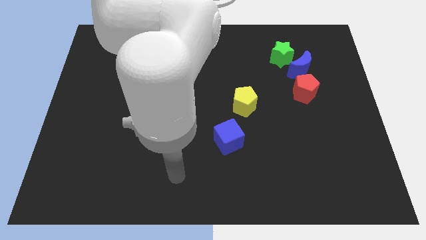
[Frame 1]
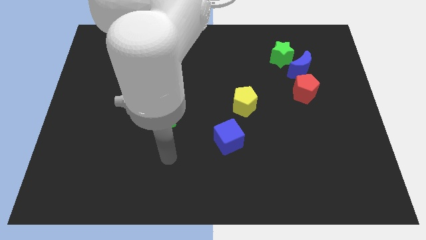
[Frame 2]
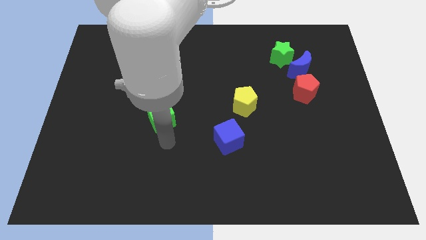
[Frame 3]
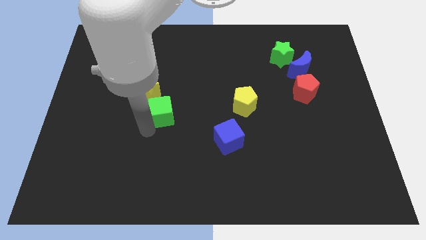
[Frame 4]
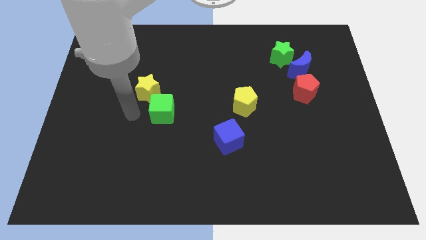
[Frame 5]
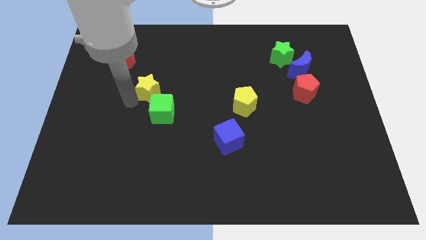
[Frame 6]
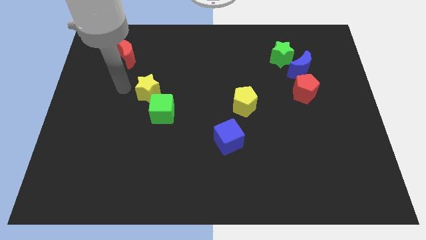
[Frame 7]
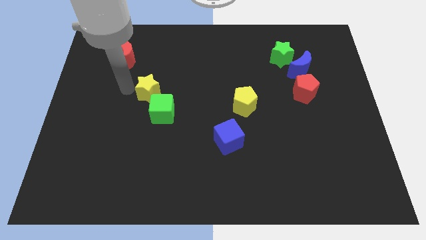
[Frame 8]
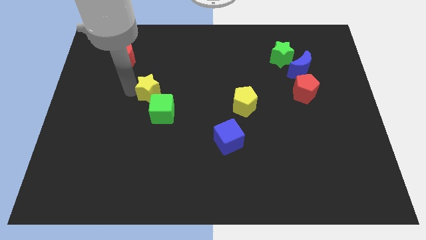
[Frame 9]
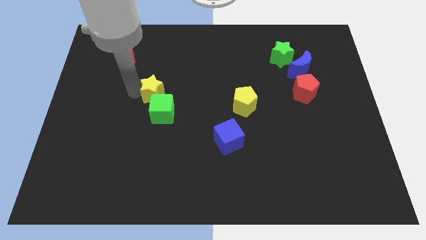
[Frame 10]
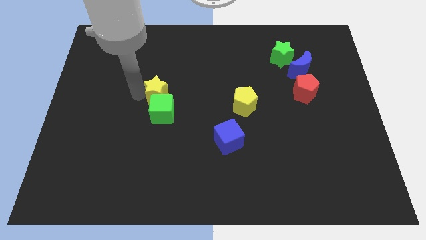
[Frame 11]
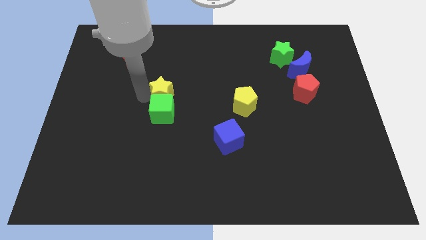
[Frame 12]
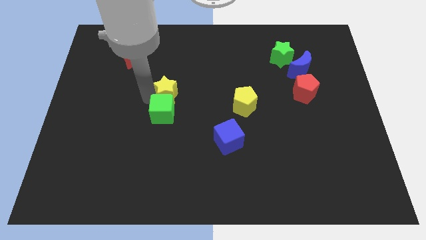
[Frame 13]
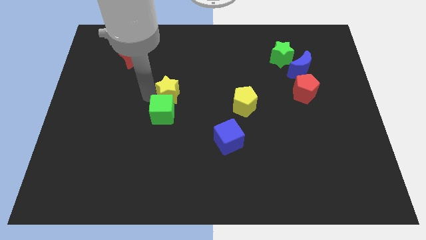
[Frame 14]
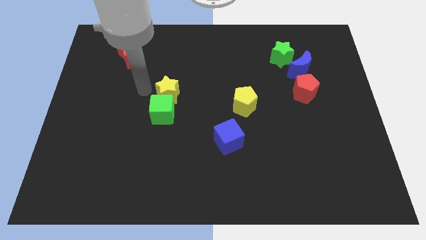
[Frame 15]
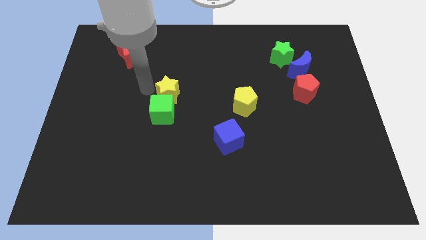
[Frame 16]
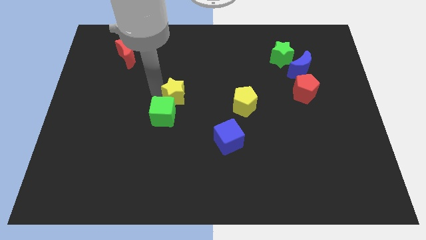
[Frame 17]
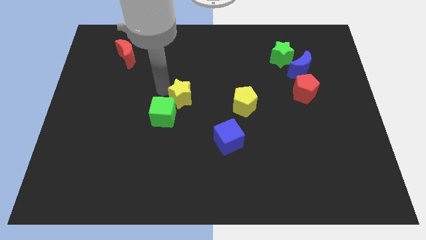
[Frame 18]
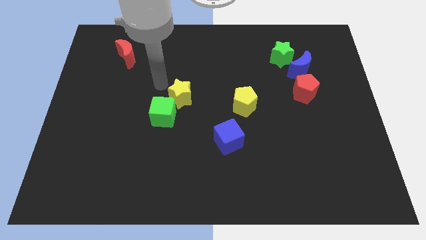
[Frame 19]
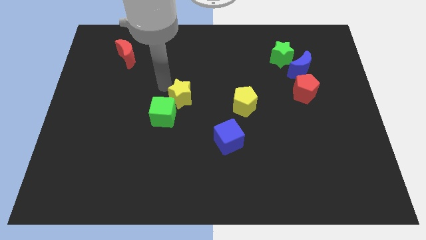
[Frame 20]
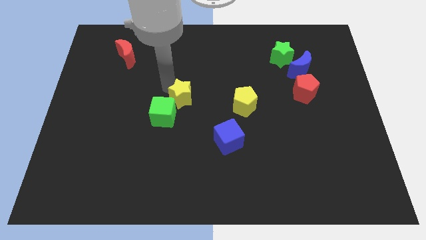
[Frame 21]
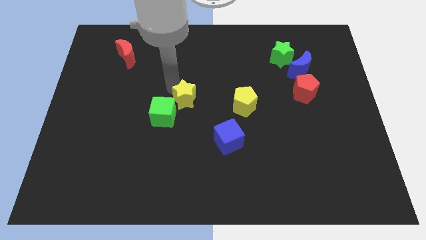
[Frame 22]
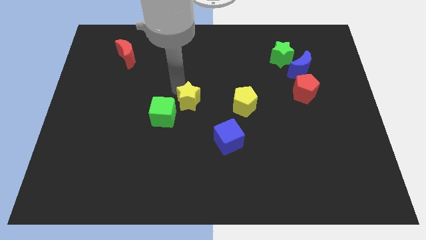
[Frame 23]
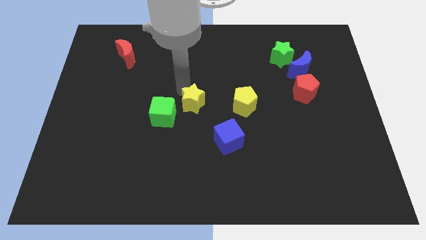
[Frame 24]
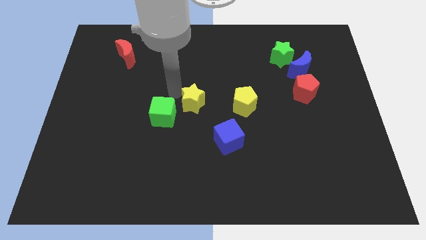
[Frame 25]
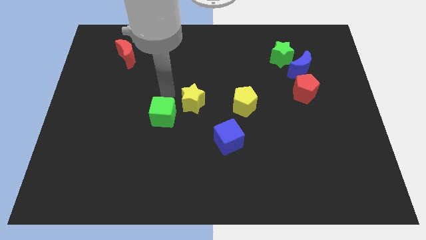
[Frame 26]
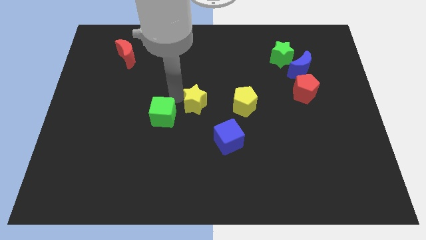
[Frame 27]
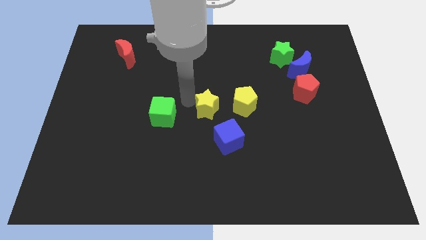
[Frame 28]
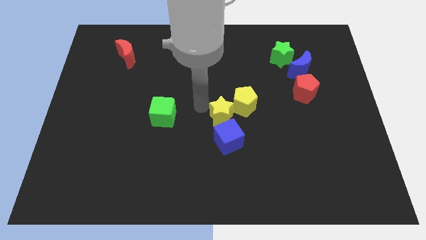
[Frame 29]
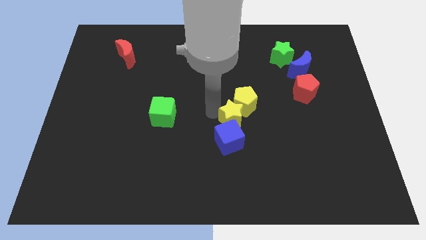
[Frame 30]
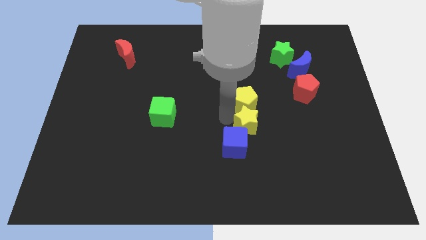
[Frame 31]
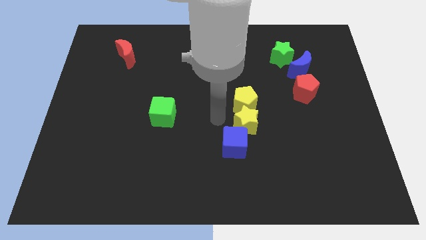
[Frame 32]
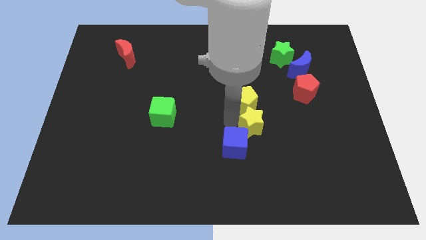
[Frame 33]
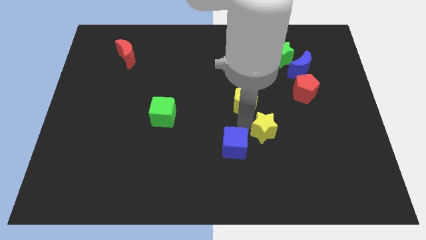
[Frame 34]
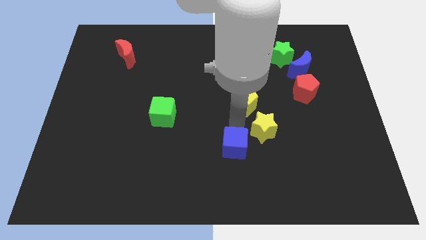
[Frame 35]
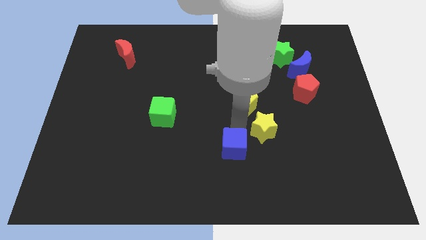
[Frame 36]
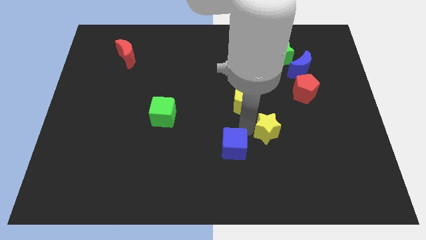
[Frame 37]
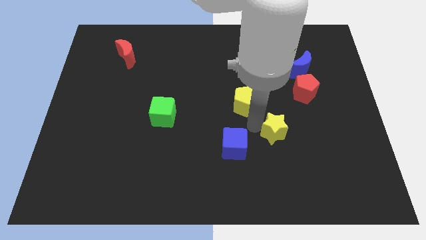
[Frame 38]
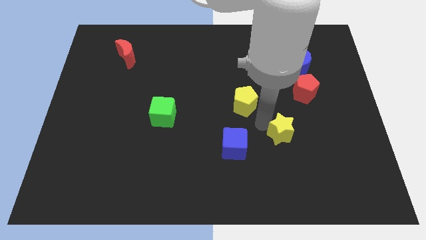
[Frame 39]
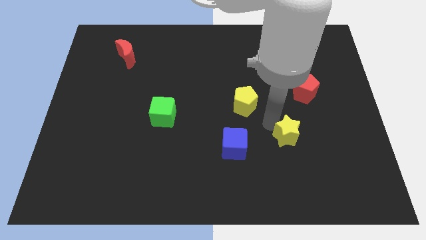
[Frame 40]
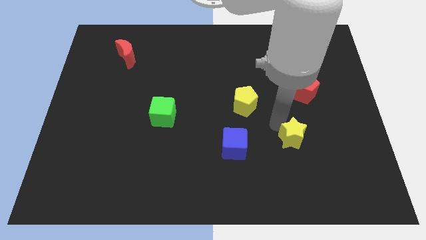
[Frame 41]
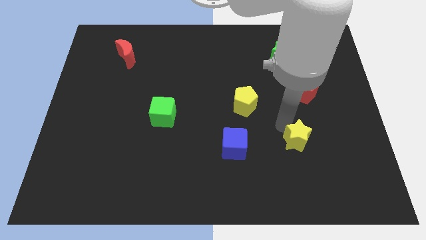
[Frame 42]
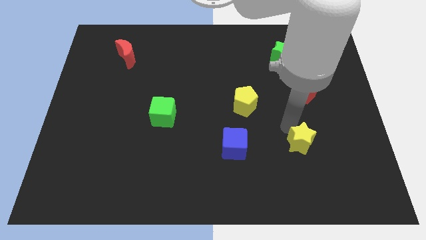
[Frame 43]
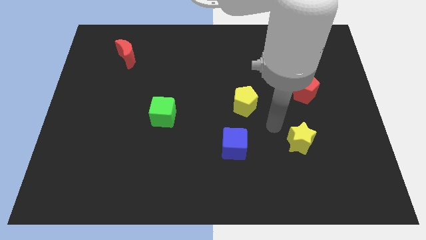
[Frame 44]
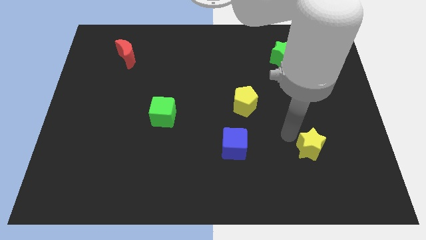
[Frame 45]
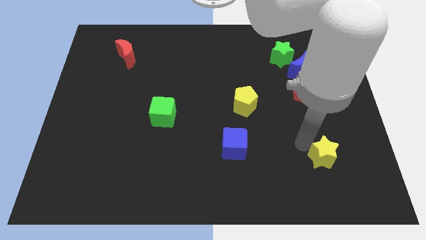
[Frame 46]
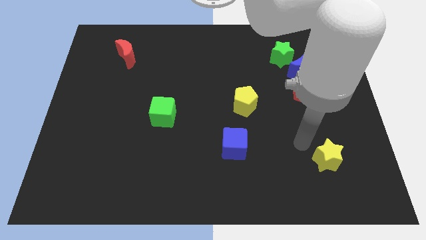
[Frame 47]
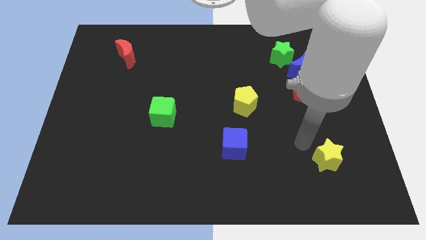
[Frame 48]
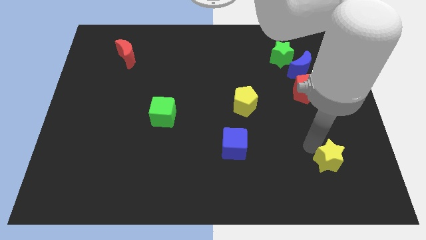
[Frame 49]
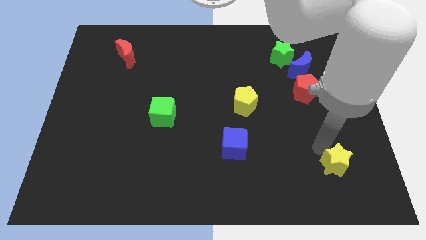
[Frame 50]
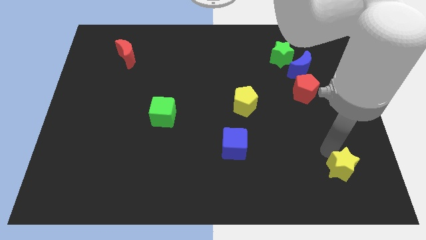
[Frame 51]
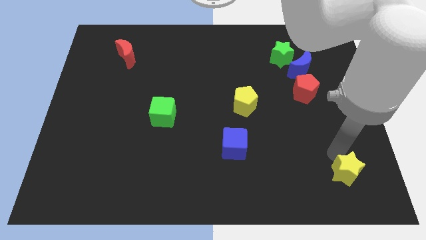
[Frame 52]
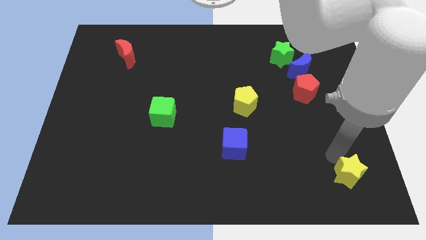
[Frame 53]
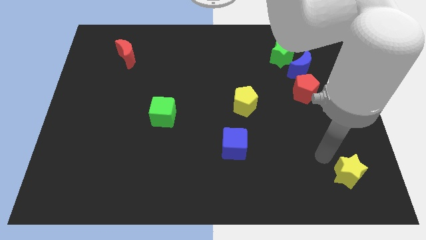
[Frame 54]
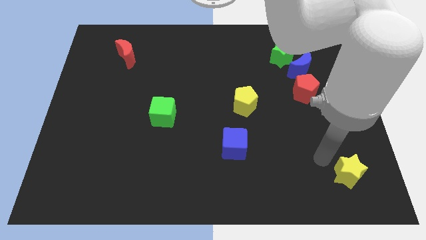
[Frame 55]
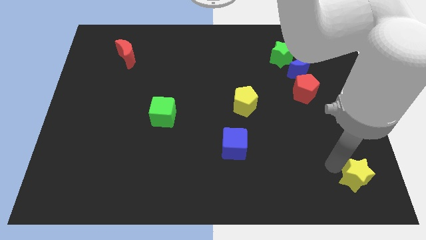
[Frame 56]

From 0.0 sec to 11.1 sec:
slide the yellow star to the bottom right of the board

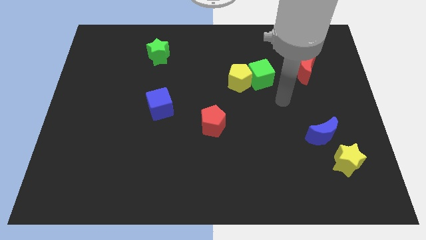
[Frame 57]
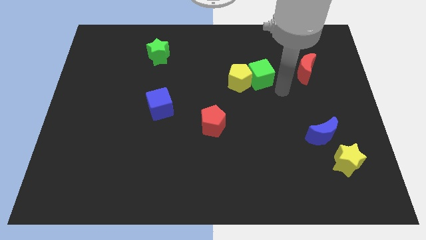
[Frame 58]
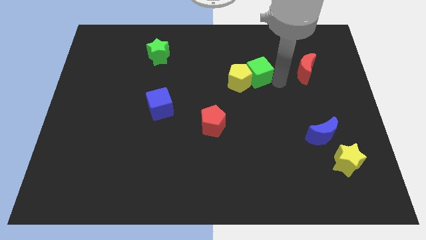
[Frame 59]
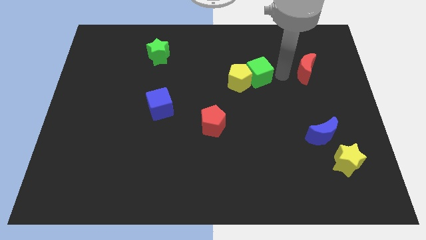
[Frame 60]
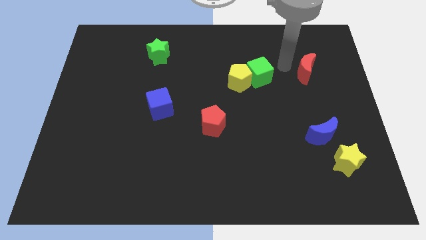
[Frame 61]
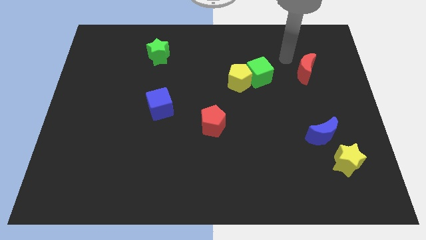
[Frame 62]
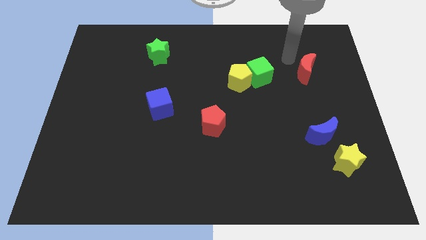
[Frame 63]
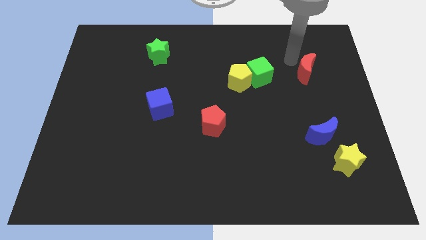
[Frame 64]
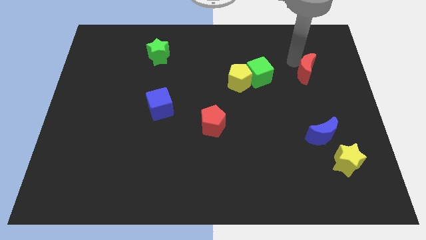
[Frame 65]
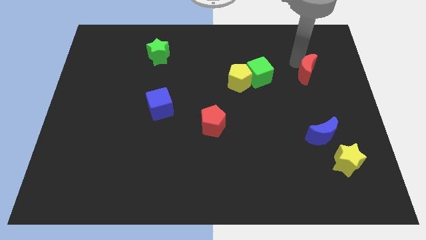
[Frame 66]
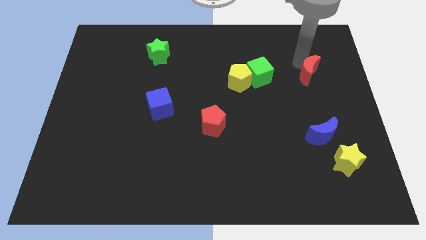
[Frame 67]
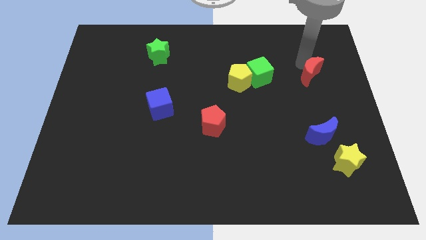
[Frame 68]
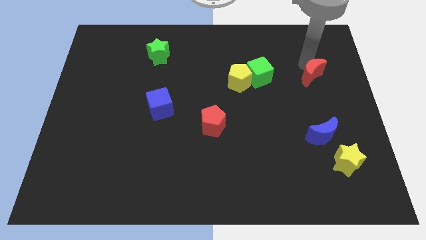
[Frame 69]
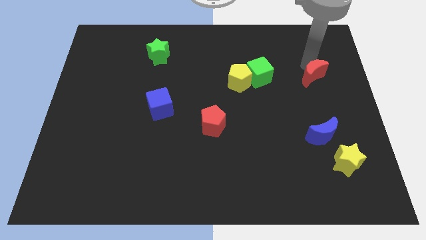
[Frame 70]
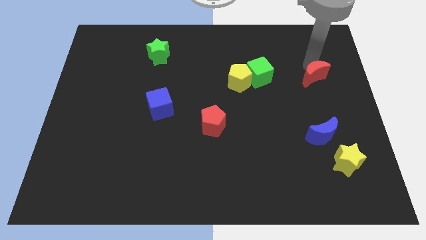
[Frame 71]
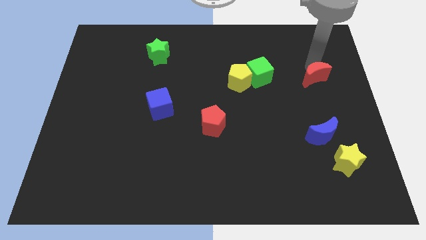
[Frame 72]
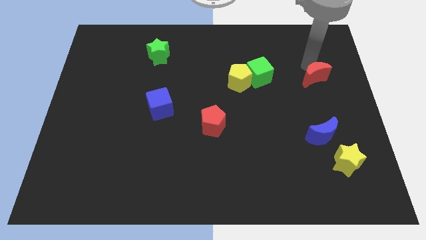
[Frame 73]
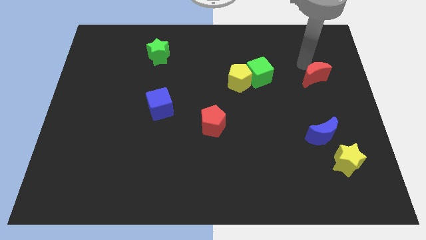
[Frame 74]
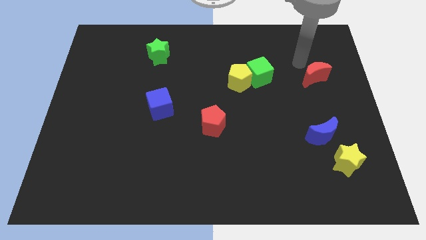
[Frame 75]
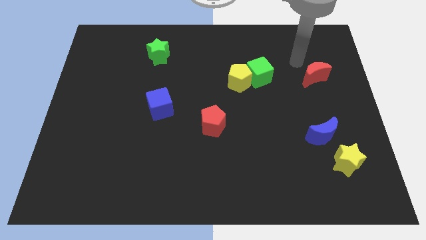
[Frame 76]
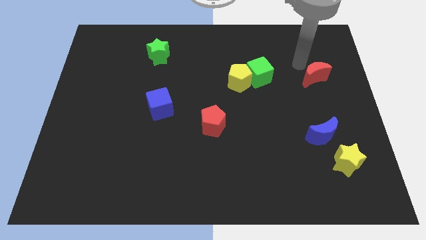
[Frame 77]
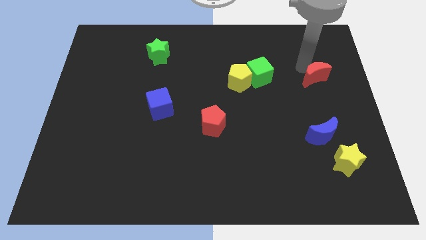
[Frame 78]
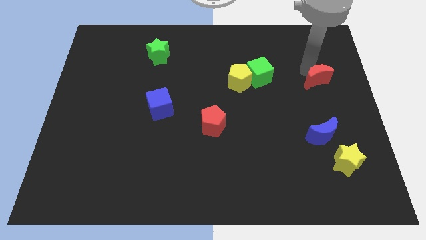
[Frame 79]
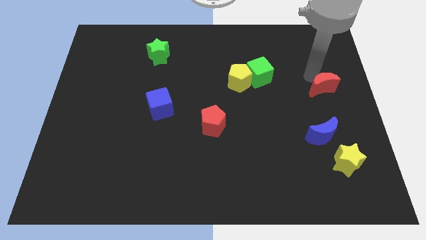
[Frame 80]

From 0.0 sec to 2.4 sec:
move the red moon to the center right
